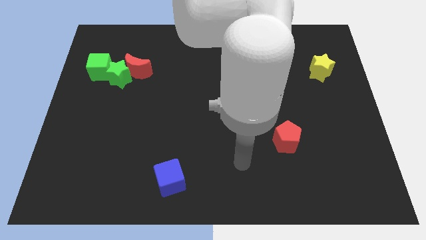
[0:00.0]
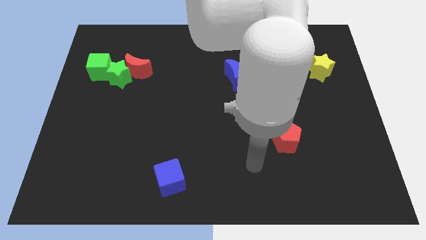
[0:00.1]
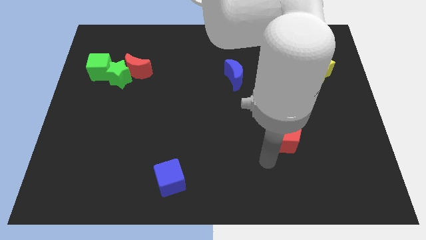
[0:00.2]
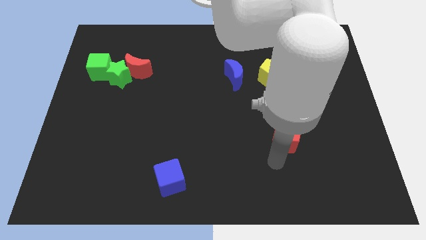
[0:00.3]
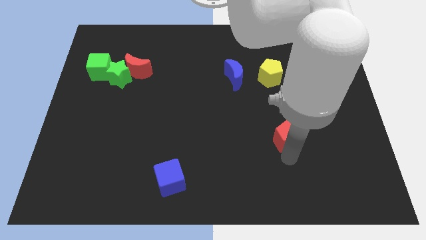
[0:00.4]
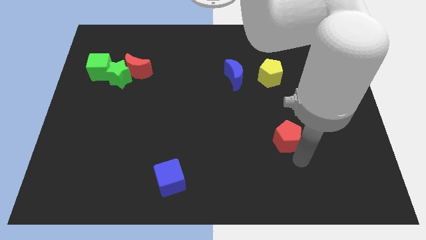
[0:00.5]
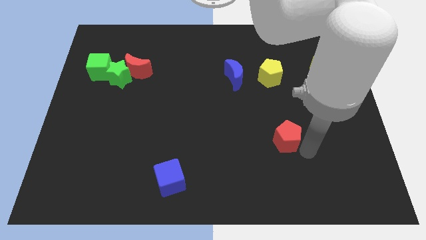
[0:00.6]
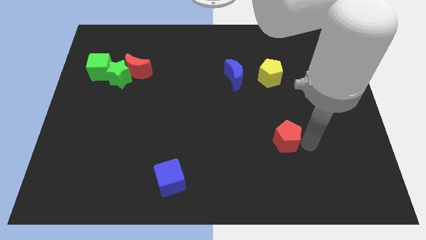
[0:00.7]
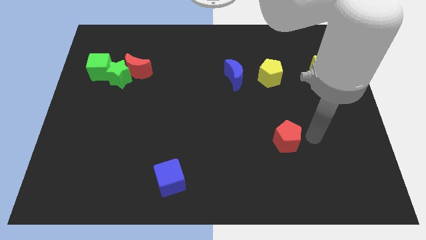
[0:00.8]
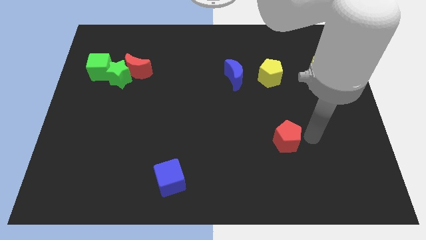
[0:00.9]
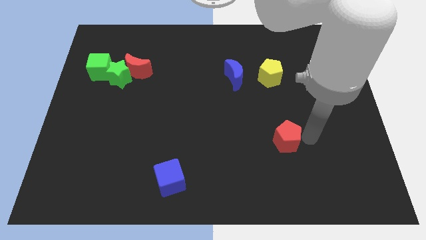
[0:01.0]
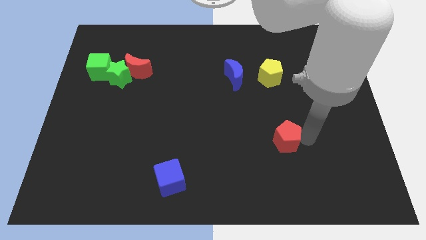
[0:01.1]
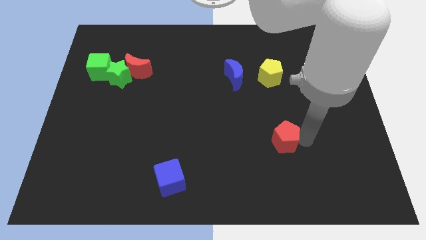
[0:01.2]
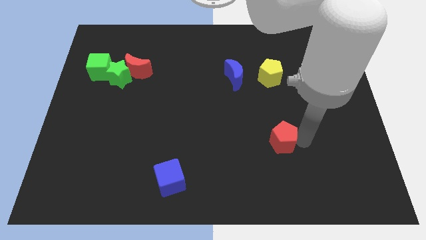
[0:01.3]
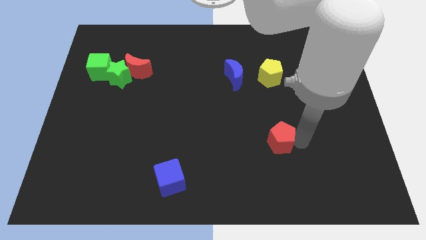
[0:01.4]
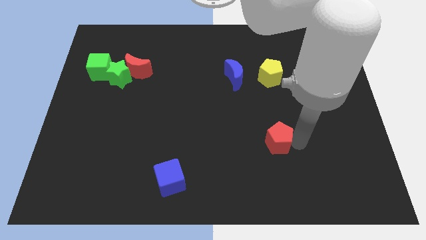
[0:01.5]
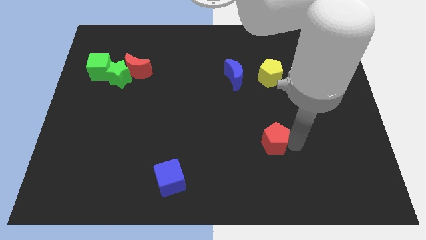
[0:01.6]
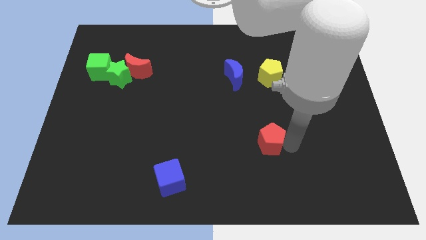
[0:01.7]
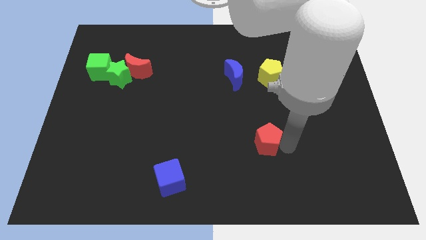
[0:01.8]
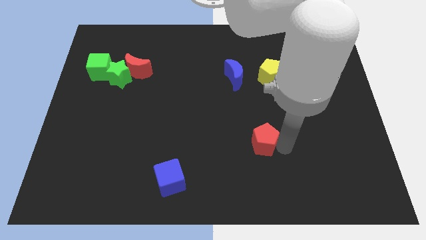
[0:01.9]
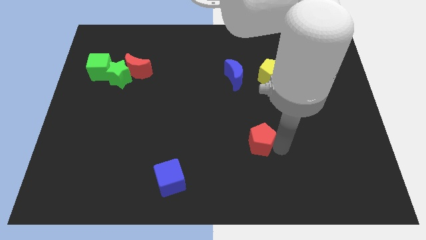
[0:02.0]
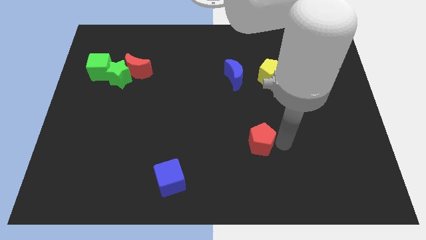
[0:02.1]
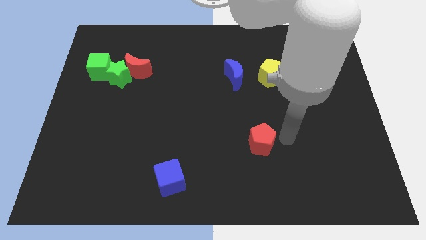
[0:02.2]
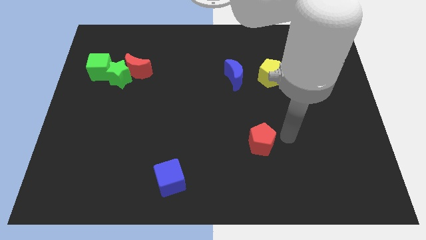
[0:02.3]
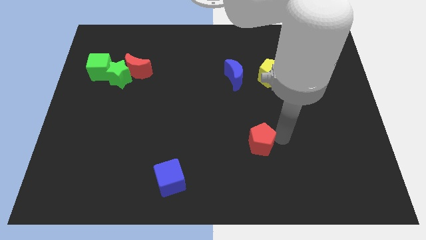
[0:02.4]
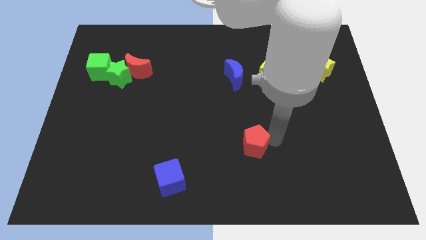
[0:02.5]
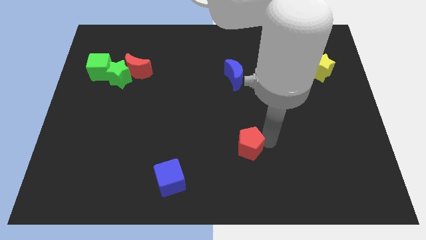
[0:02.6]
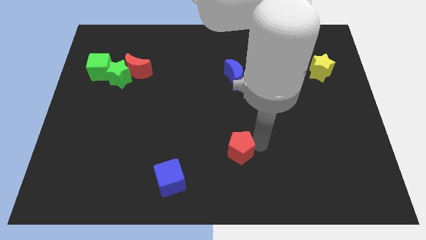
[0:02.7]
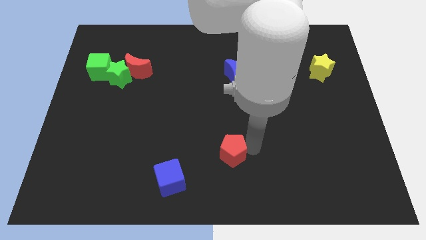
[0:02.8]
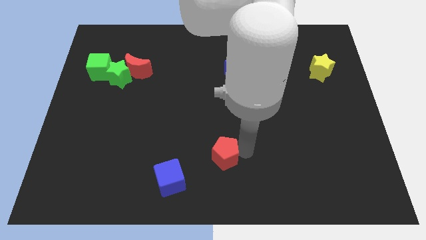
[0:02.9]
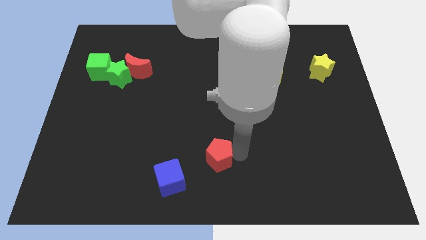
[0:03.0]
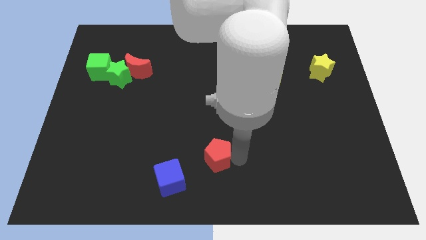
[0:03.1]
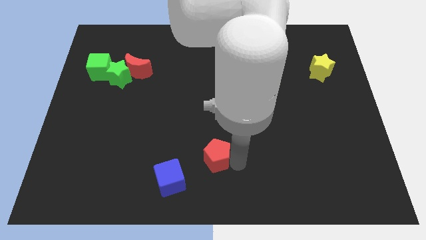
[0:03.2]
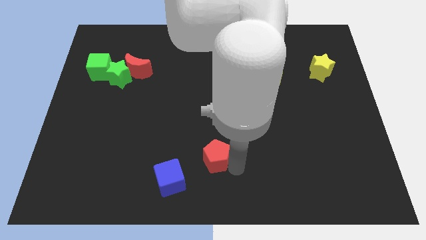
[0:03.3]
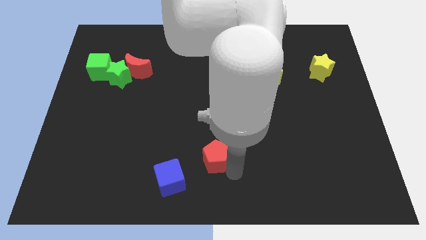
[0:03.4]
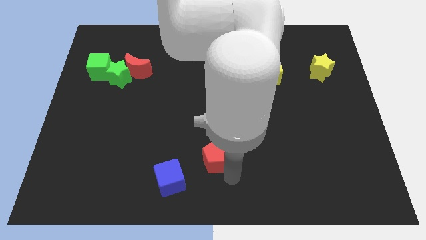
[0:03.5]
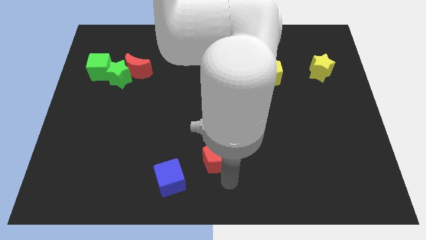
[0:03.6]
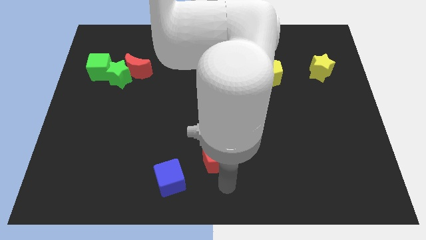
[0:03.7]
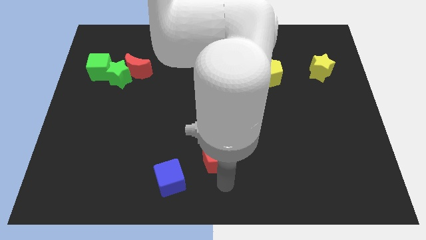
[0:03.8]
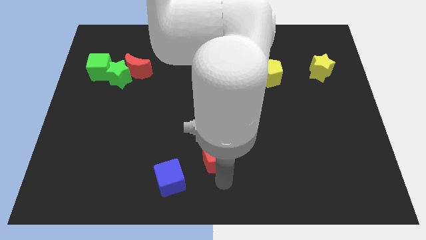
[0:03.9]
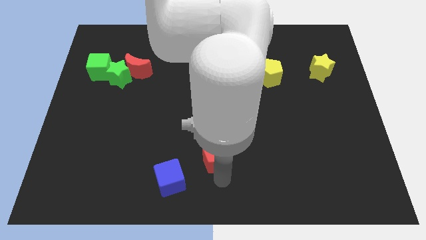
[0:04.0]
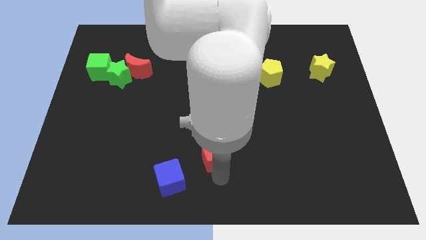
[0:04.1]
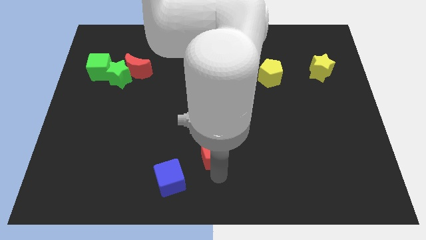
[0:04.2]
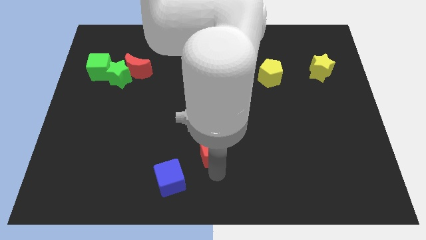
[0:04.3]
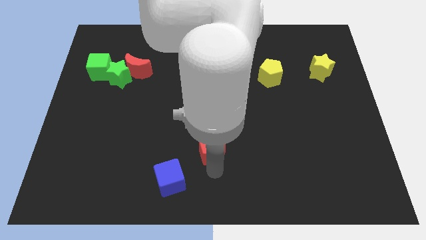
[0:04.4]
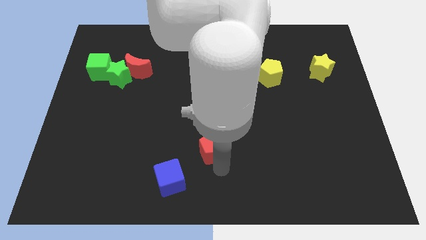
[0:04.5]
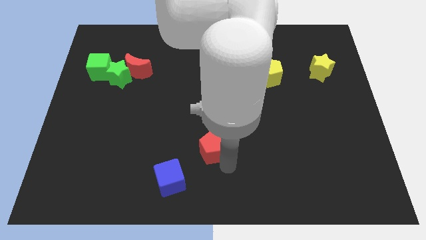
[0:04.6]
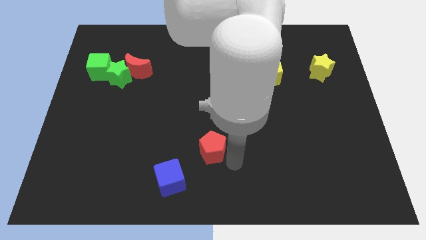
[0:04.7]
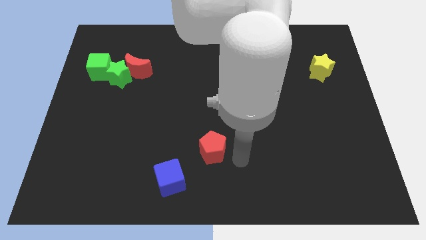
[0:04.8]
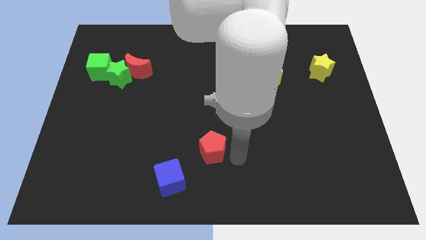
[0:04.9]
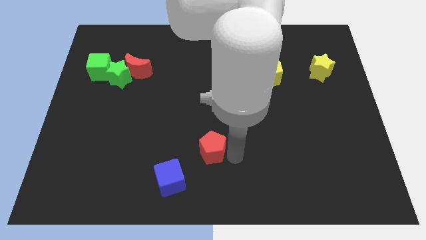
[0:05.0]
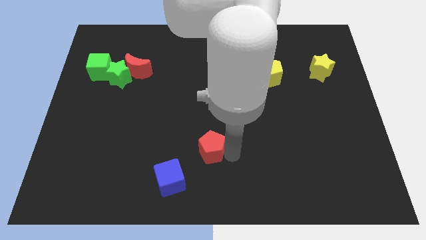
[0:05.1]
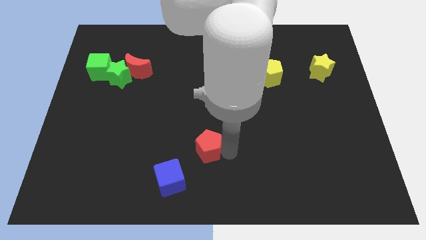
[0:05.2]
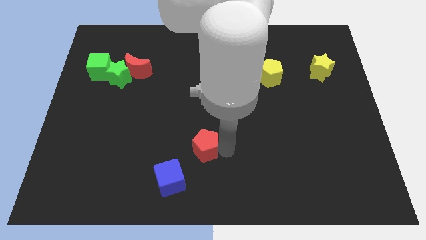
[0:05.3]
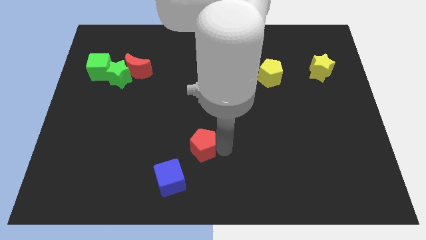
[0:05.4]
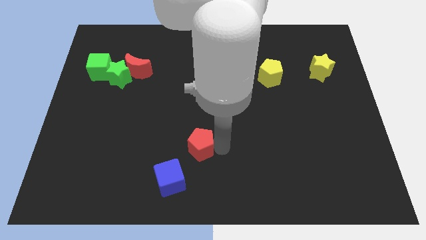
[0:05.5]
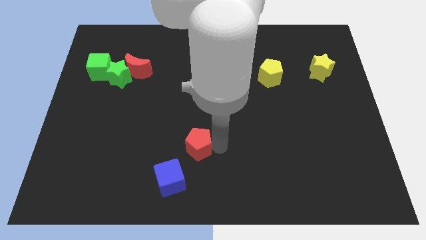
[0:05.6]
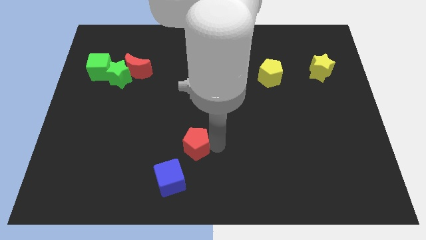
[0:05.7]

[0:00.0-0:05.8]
move the red pentagon to the left

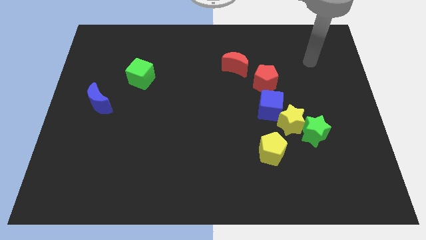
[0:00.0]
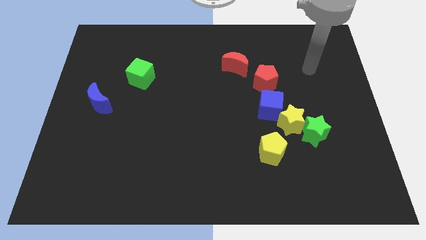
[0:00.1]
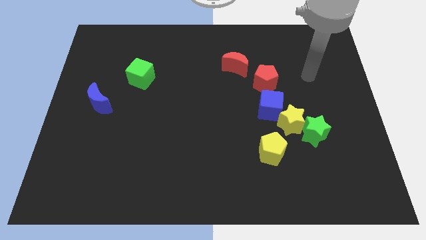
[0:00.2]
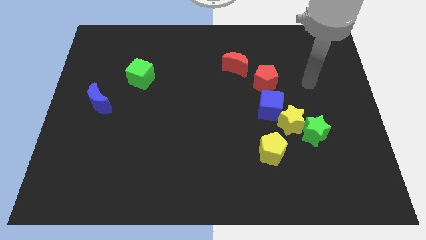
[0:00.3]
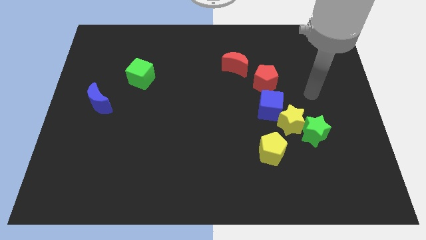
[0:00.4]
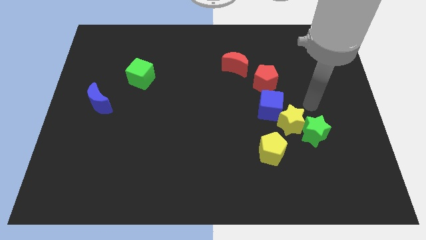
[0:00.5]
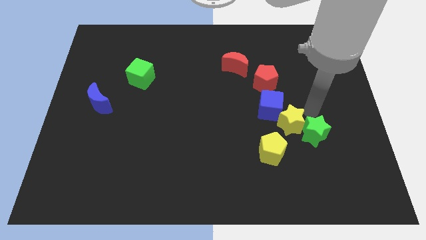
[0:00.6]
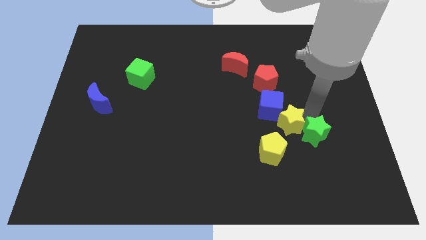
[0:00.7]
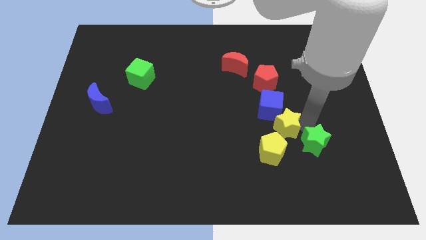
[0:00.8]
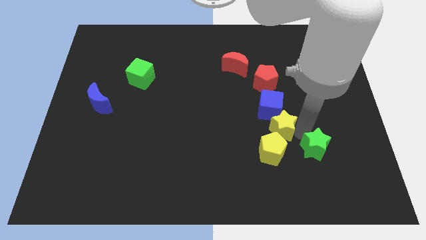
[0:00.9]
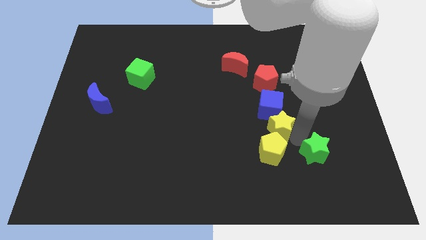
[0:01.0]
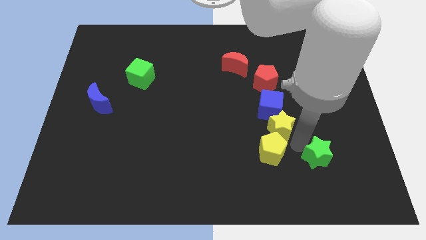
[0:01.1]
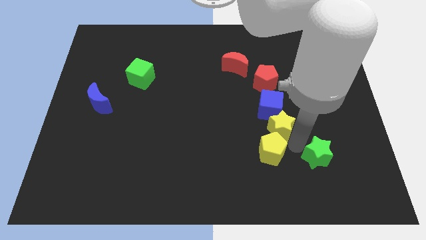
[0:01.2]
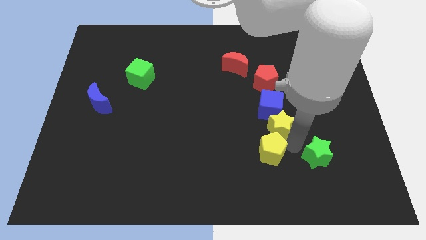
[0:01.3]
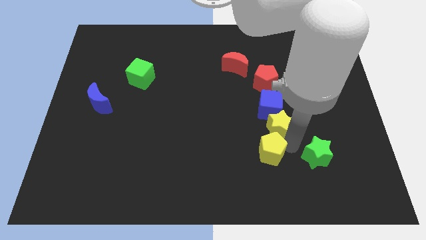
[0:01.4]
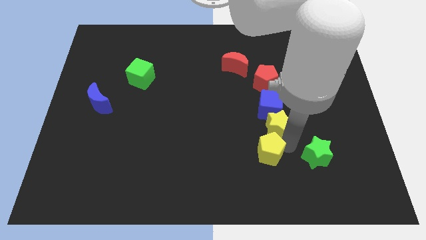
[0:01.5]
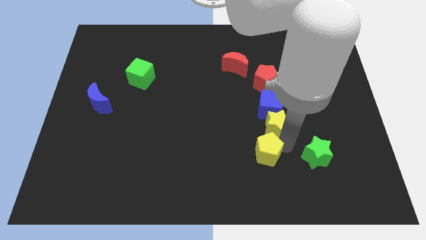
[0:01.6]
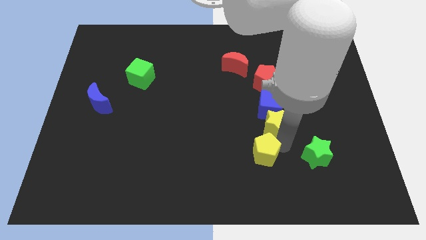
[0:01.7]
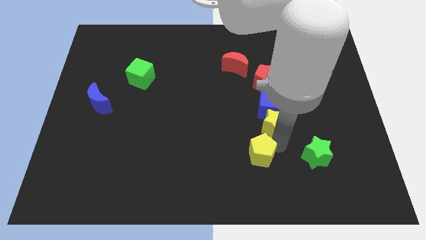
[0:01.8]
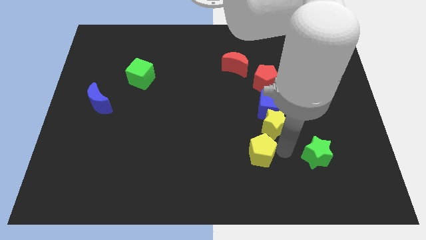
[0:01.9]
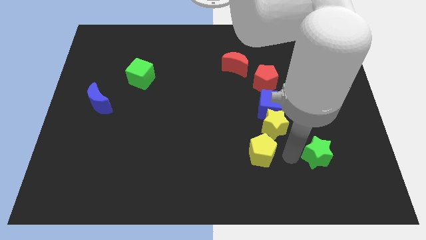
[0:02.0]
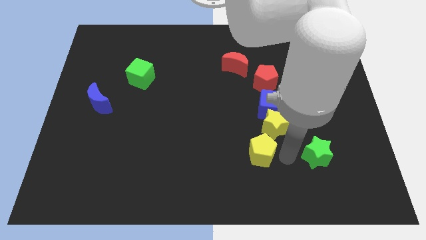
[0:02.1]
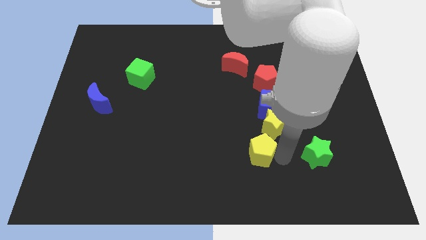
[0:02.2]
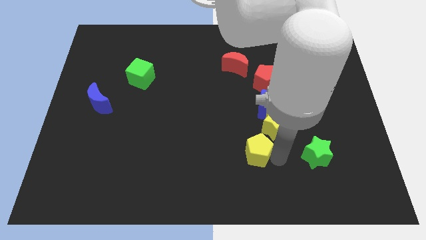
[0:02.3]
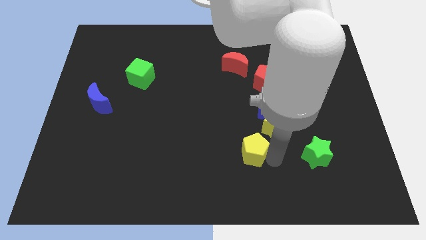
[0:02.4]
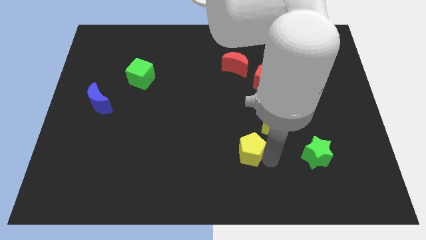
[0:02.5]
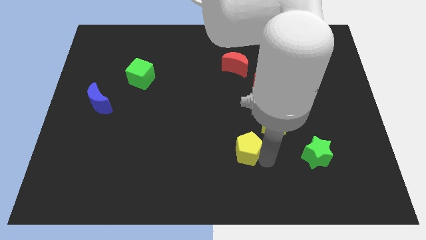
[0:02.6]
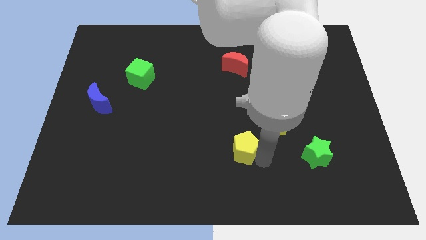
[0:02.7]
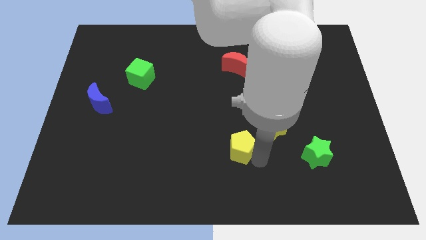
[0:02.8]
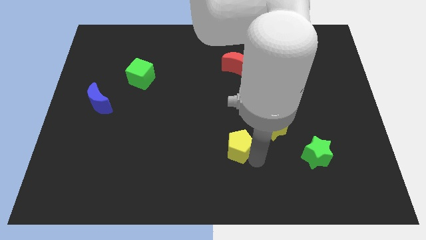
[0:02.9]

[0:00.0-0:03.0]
slide the yellow pentagon a little left
